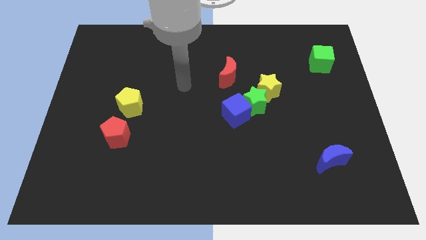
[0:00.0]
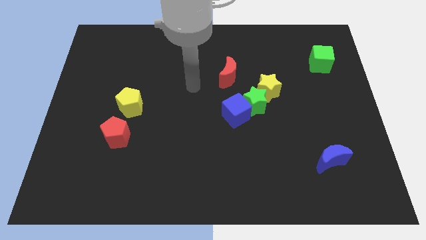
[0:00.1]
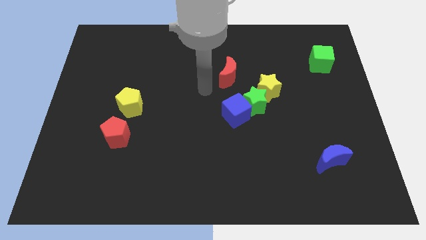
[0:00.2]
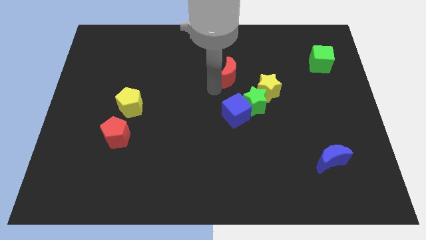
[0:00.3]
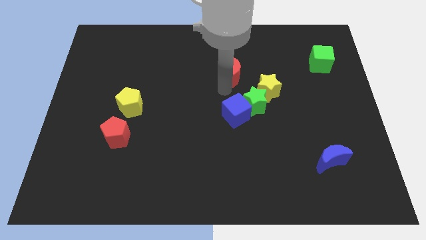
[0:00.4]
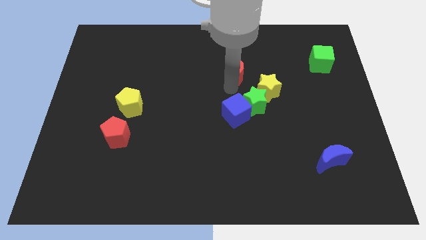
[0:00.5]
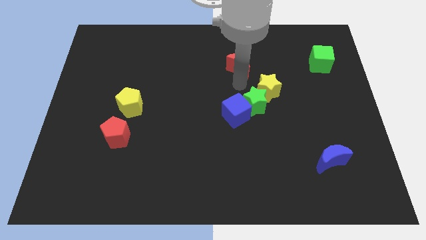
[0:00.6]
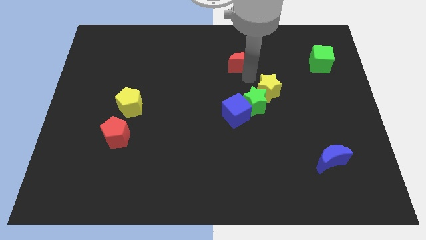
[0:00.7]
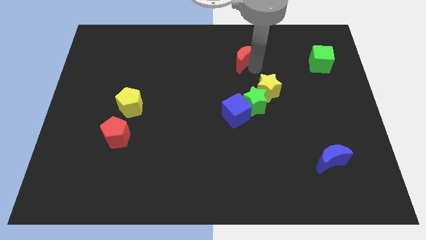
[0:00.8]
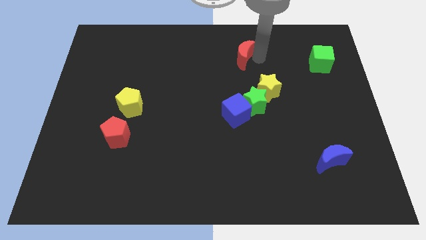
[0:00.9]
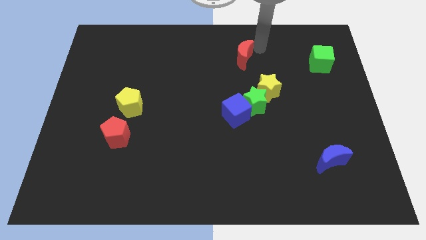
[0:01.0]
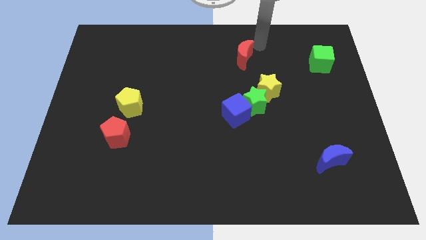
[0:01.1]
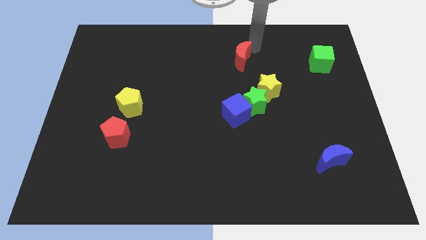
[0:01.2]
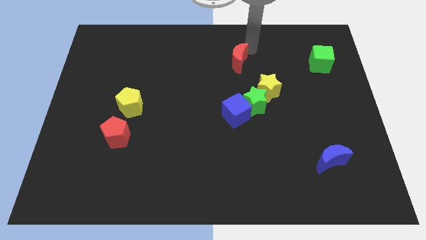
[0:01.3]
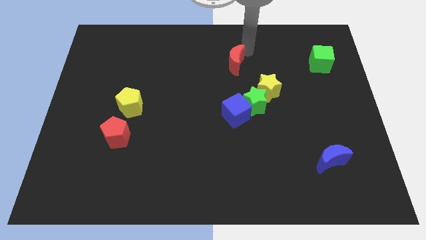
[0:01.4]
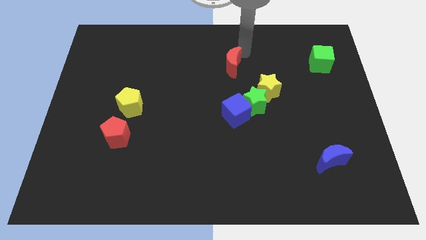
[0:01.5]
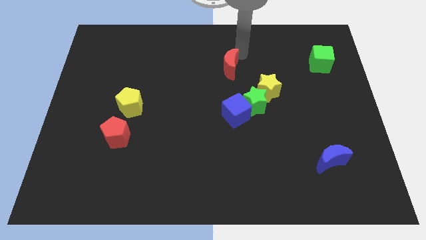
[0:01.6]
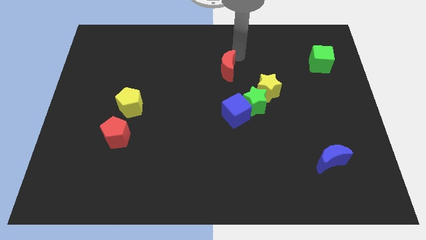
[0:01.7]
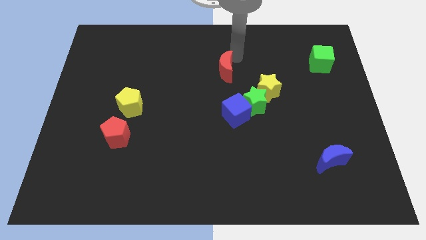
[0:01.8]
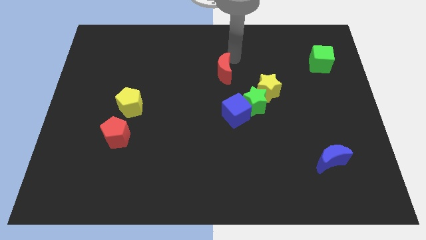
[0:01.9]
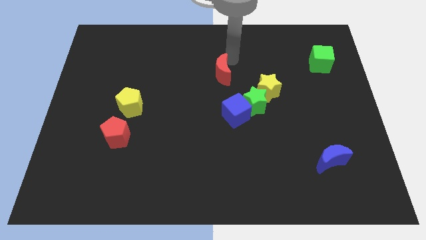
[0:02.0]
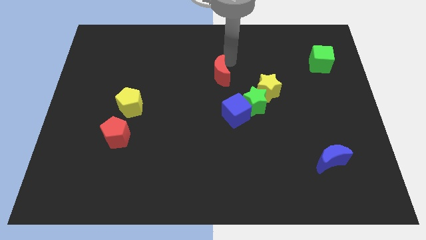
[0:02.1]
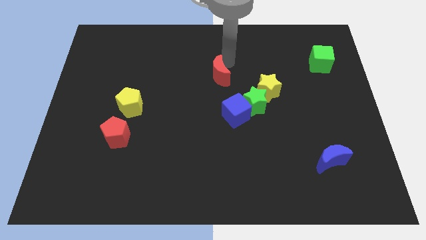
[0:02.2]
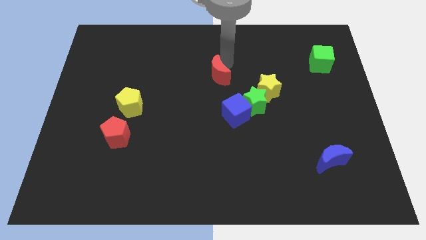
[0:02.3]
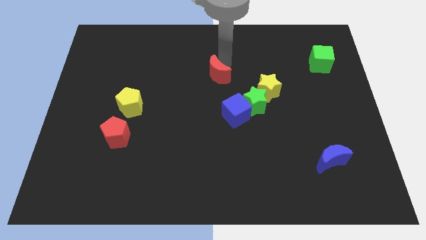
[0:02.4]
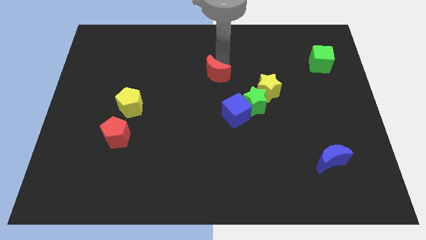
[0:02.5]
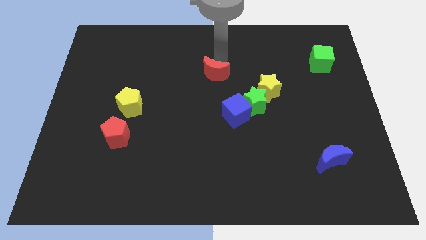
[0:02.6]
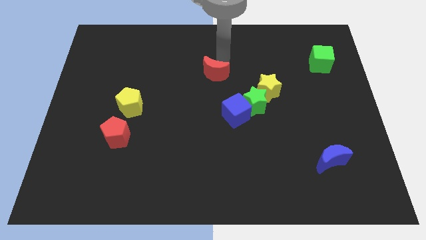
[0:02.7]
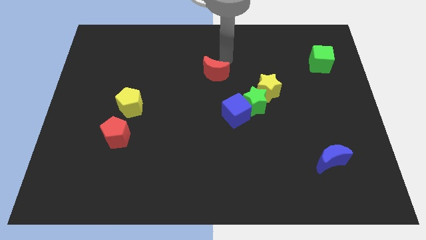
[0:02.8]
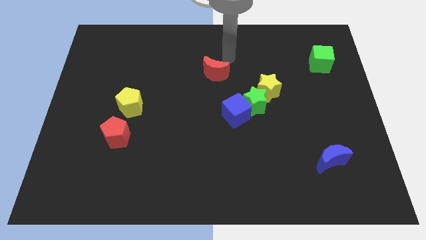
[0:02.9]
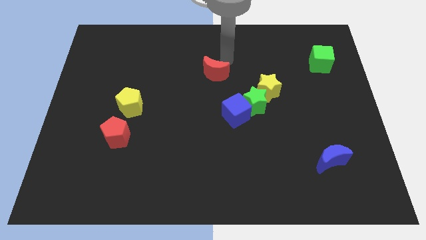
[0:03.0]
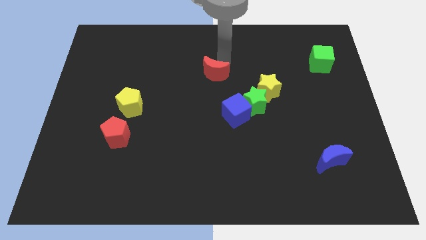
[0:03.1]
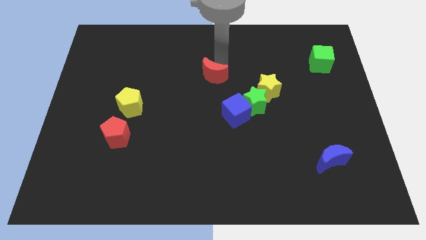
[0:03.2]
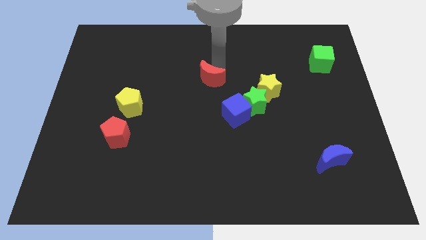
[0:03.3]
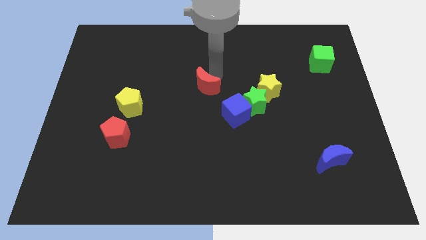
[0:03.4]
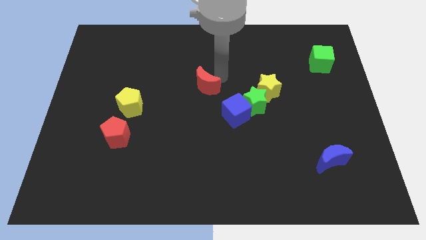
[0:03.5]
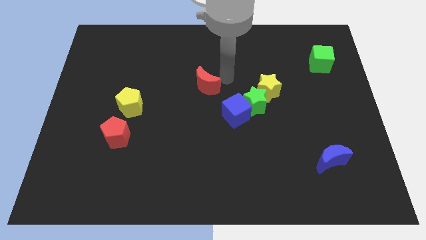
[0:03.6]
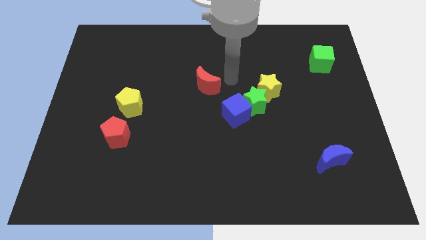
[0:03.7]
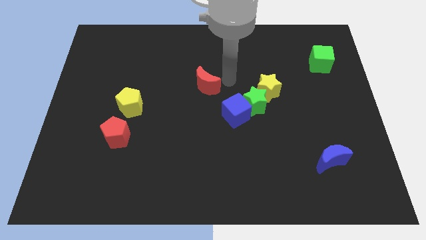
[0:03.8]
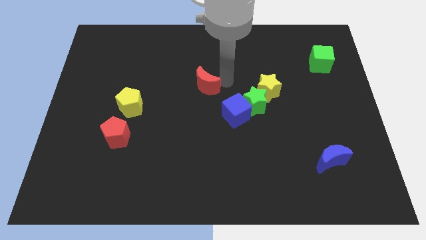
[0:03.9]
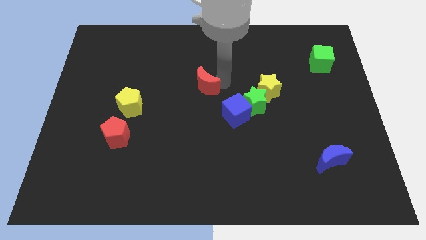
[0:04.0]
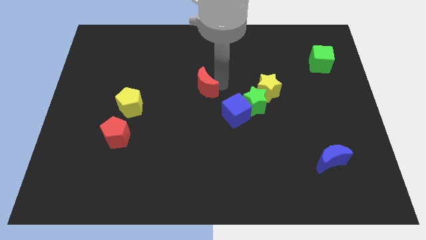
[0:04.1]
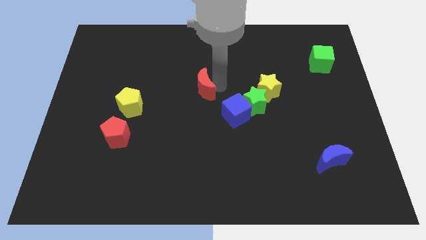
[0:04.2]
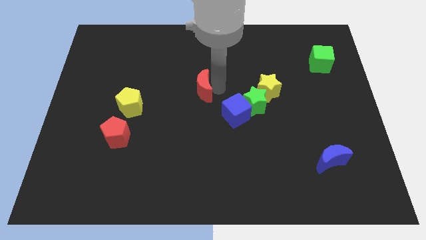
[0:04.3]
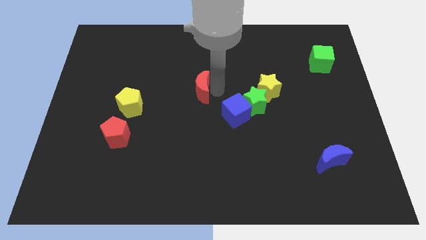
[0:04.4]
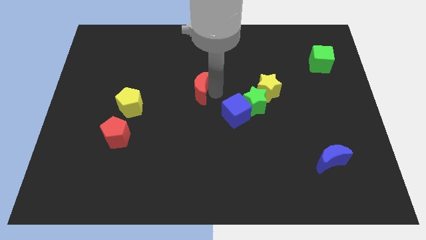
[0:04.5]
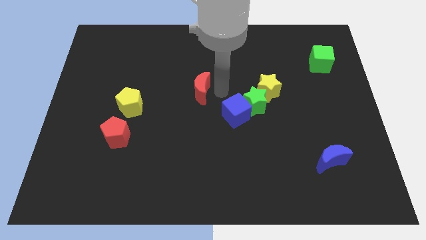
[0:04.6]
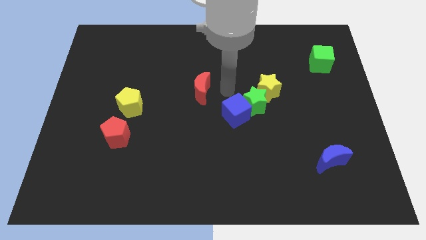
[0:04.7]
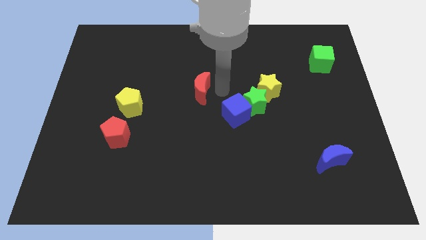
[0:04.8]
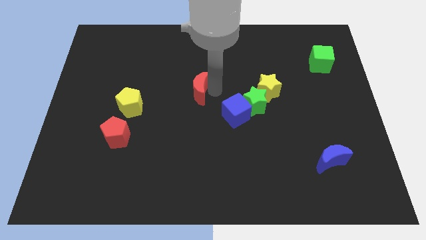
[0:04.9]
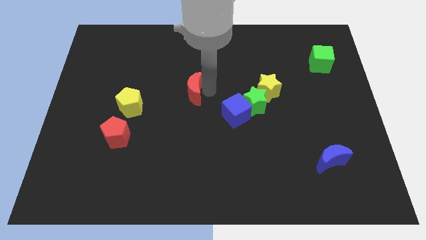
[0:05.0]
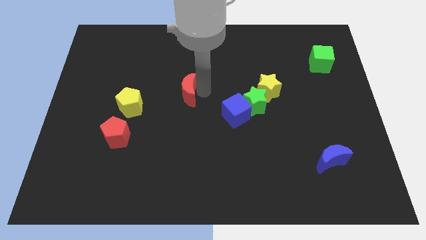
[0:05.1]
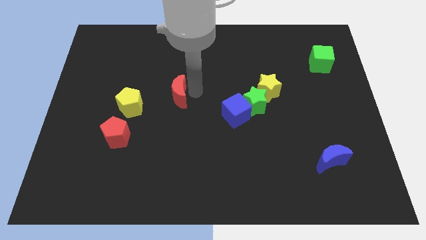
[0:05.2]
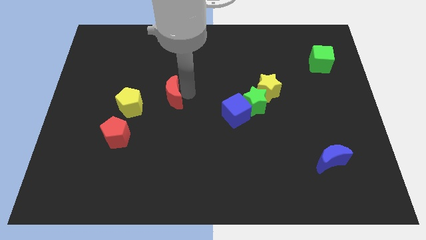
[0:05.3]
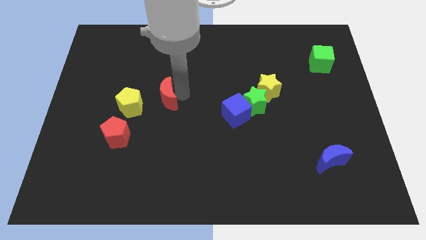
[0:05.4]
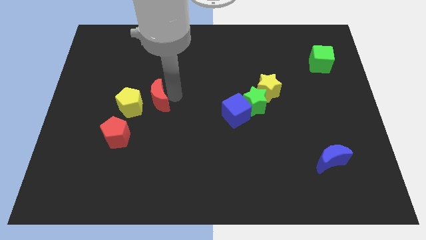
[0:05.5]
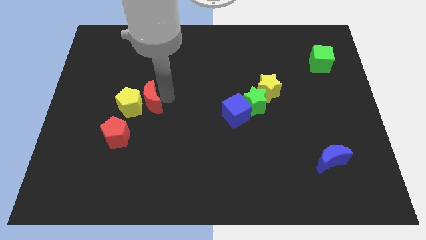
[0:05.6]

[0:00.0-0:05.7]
slide the red moon to the yellow pentagon
